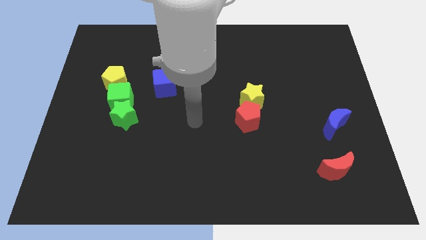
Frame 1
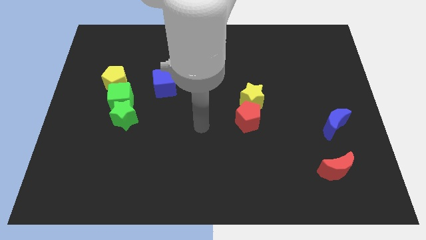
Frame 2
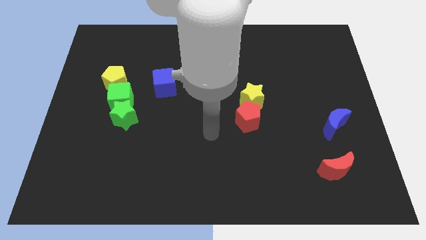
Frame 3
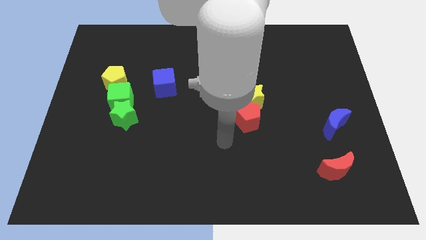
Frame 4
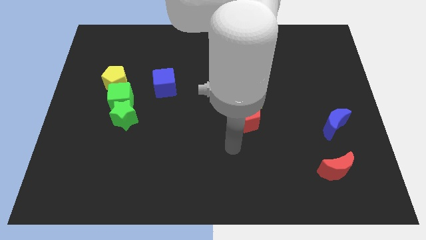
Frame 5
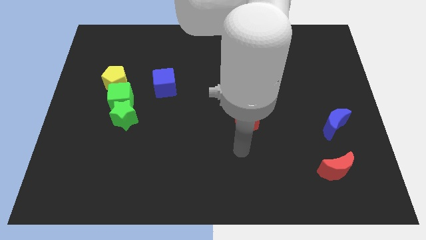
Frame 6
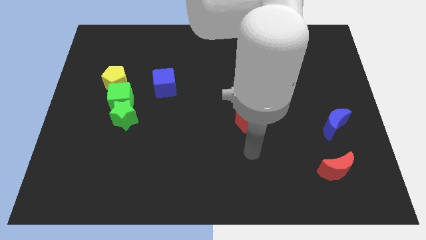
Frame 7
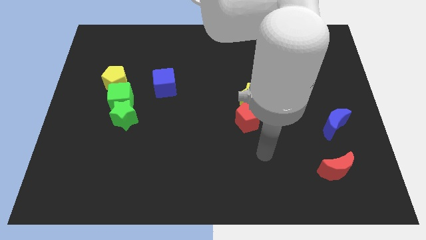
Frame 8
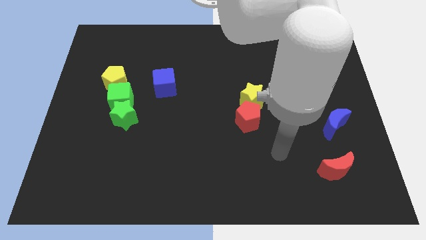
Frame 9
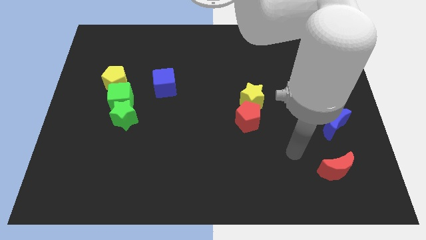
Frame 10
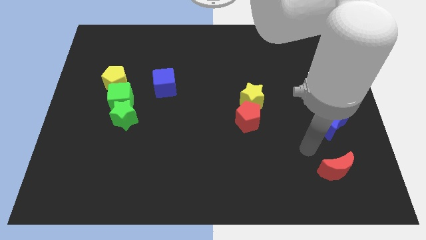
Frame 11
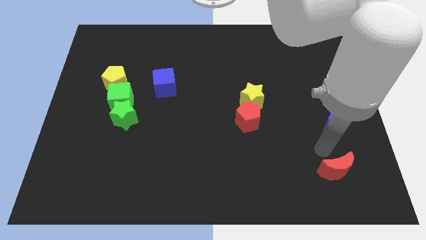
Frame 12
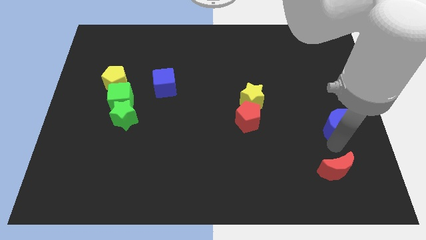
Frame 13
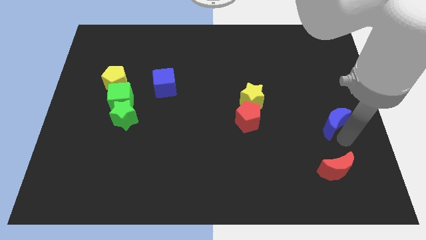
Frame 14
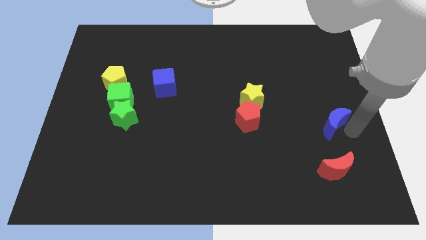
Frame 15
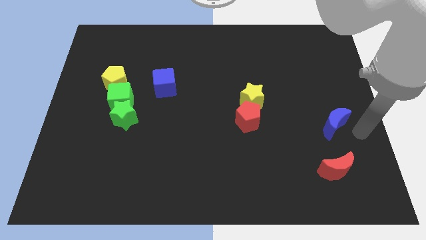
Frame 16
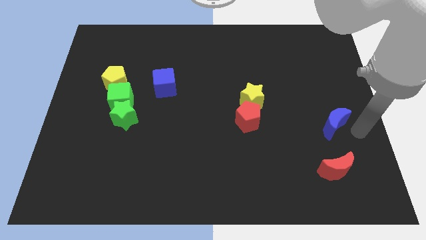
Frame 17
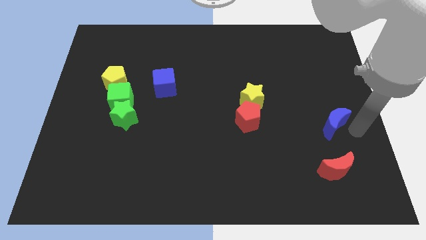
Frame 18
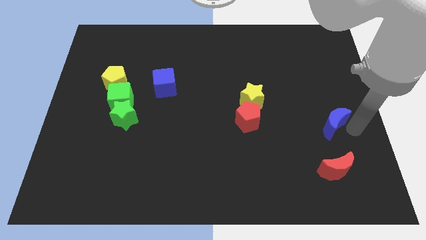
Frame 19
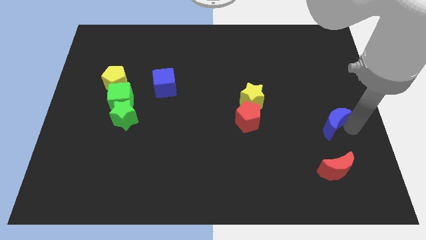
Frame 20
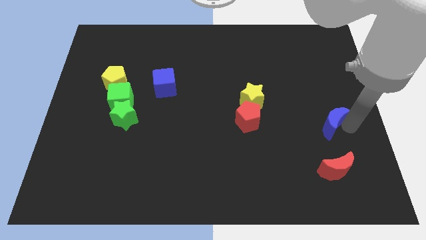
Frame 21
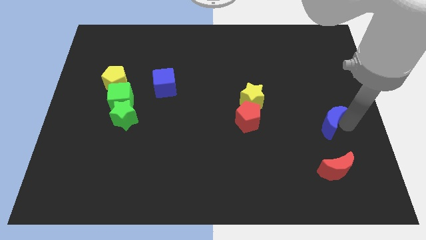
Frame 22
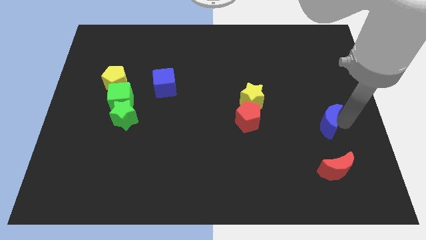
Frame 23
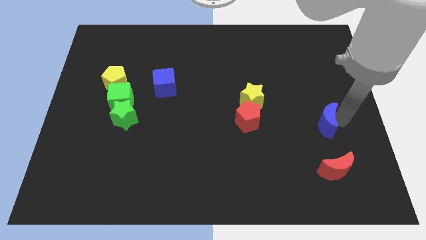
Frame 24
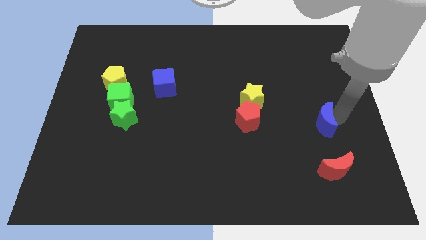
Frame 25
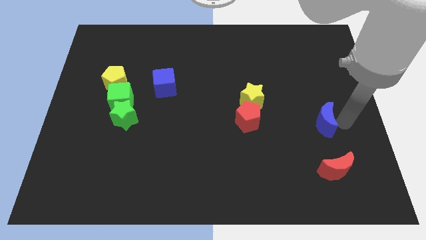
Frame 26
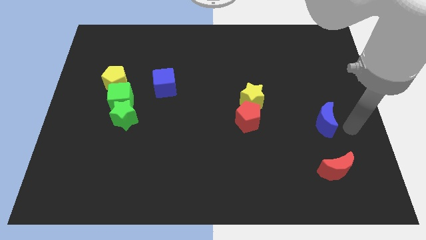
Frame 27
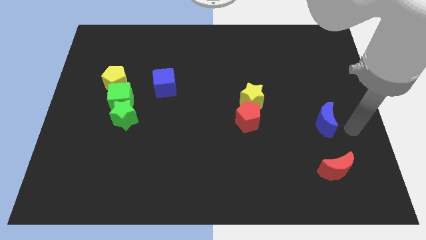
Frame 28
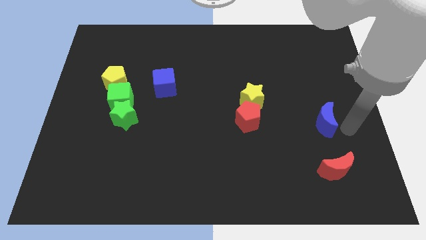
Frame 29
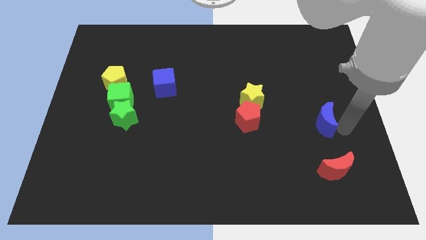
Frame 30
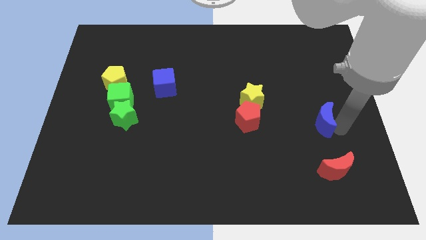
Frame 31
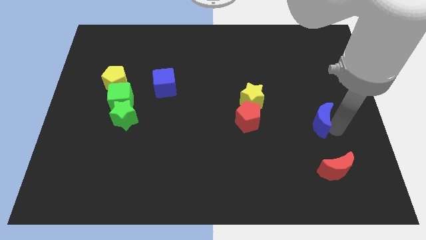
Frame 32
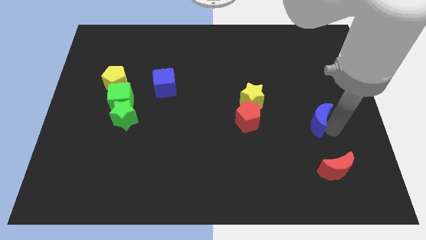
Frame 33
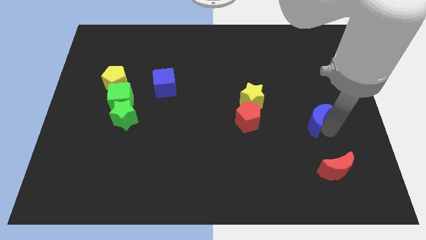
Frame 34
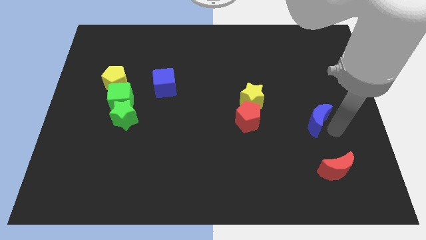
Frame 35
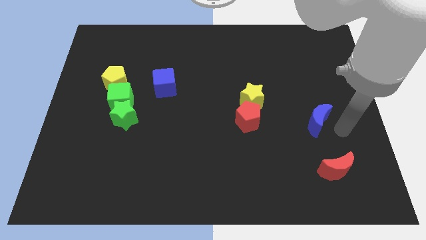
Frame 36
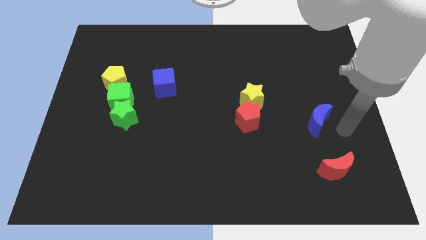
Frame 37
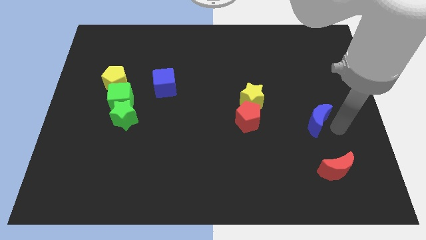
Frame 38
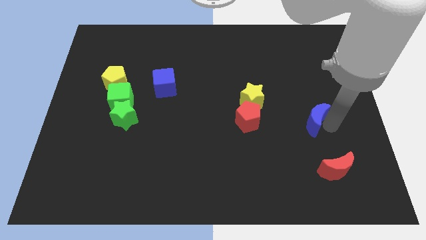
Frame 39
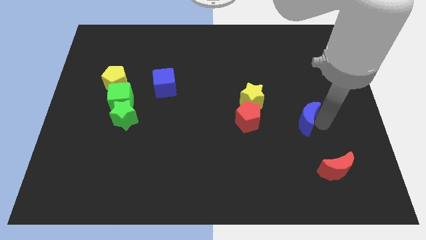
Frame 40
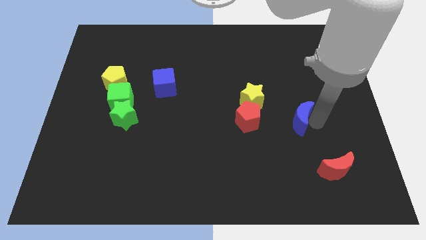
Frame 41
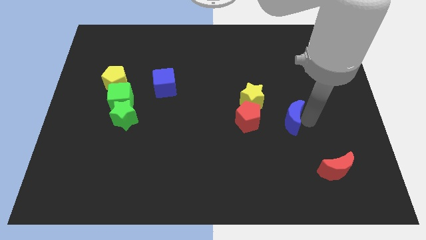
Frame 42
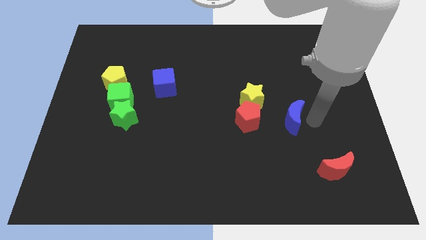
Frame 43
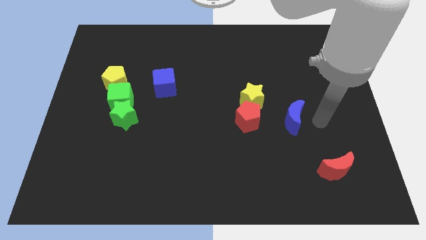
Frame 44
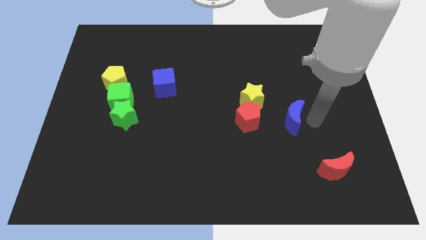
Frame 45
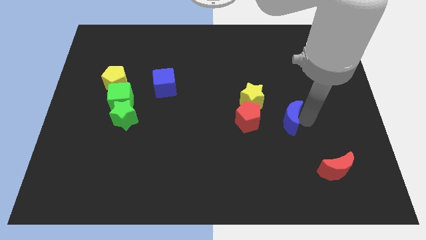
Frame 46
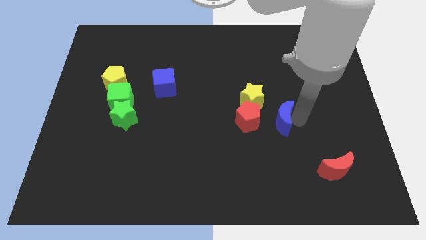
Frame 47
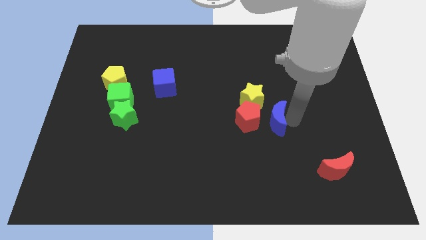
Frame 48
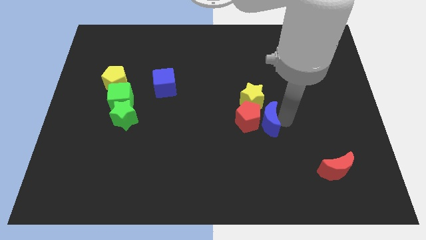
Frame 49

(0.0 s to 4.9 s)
slide the blue moon close to the red pentagon

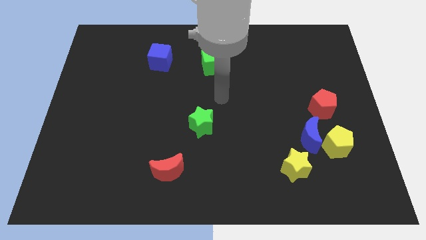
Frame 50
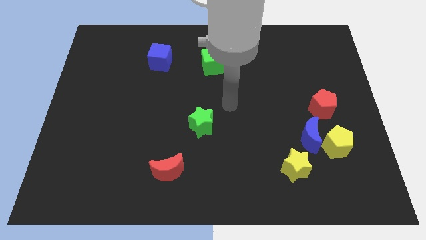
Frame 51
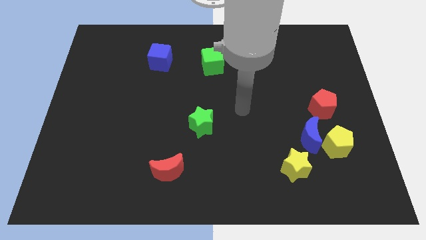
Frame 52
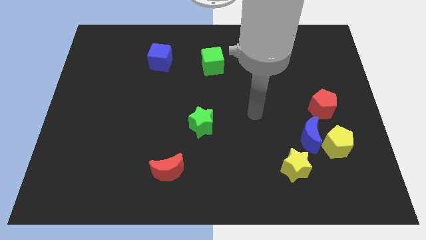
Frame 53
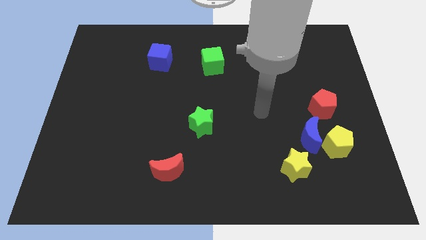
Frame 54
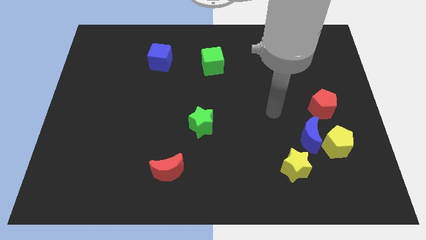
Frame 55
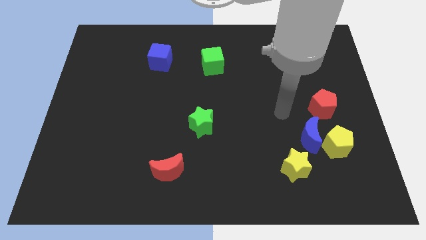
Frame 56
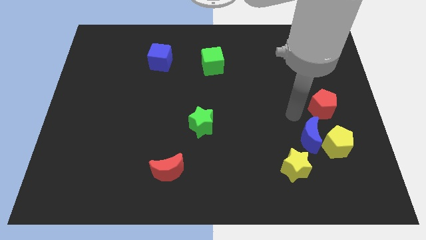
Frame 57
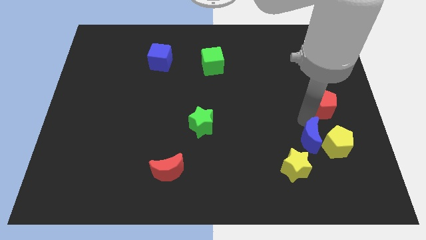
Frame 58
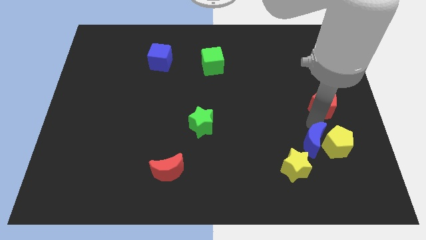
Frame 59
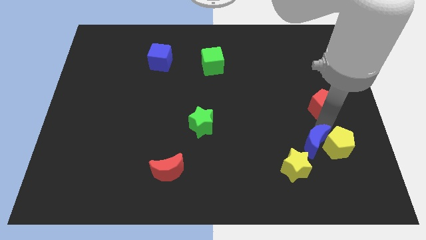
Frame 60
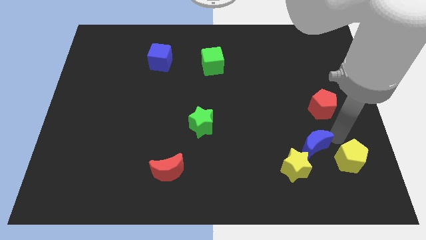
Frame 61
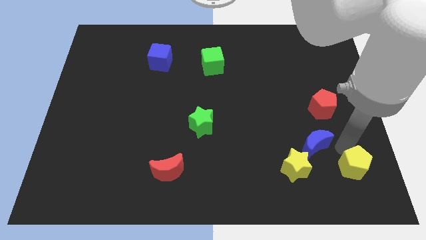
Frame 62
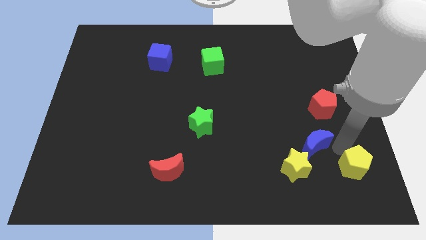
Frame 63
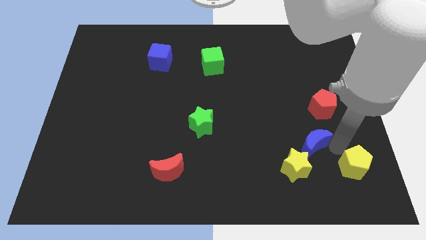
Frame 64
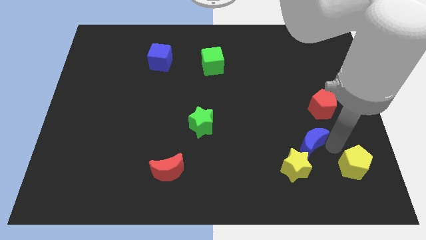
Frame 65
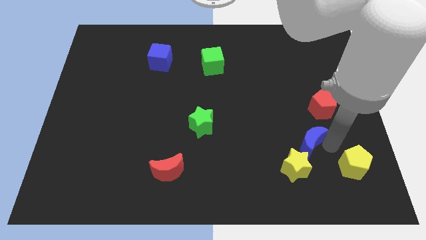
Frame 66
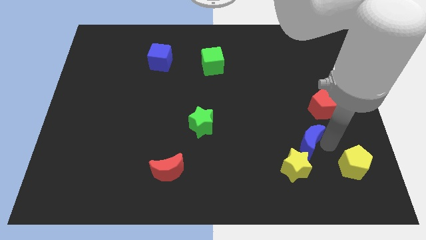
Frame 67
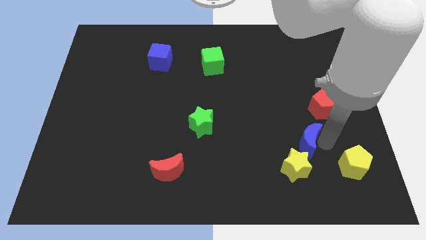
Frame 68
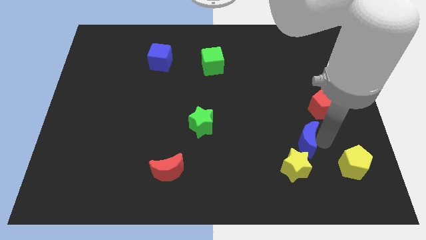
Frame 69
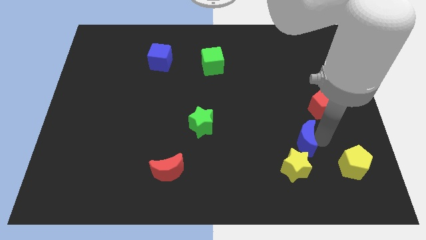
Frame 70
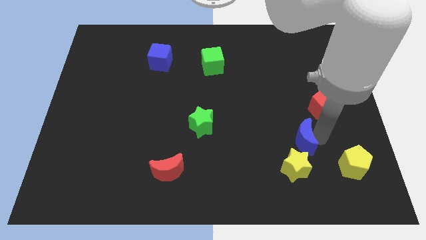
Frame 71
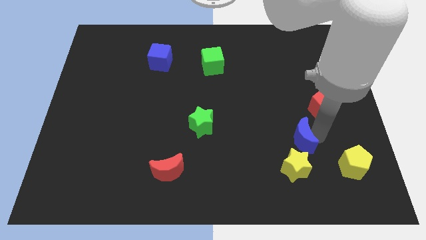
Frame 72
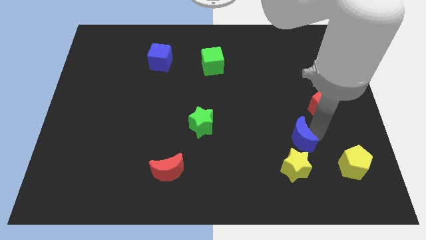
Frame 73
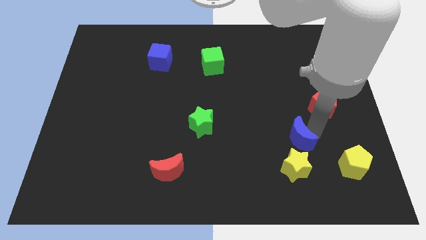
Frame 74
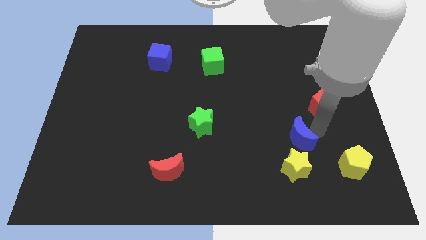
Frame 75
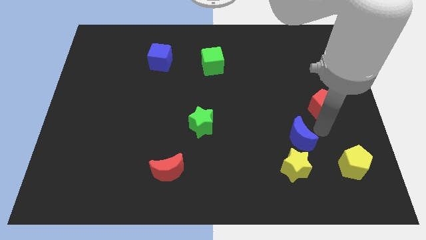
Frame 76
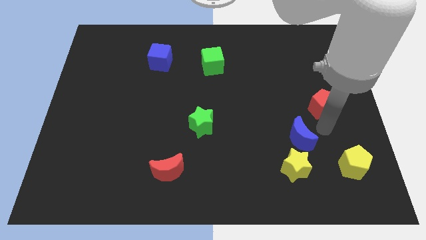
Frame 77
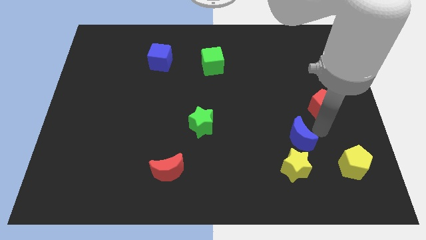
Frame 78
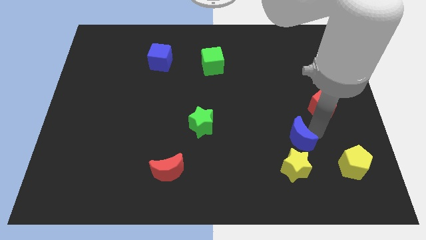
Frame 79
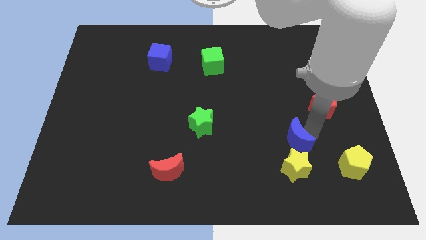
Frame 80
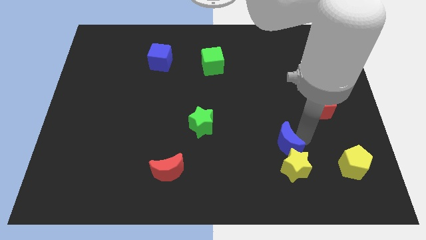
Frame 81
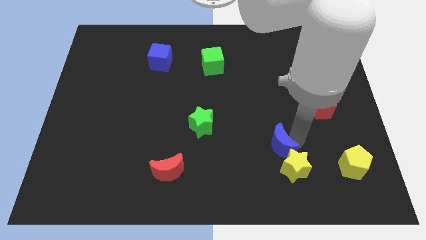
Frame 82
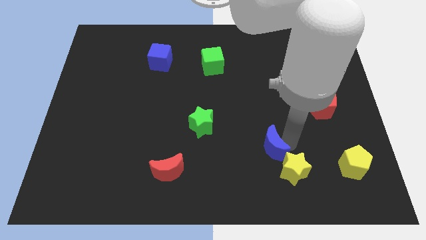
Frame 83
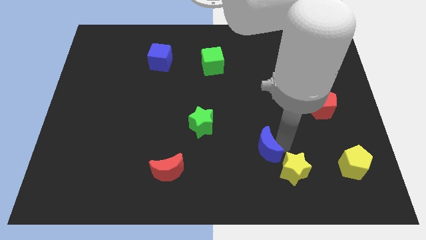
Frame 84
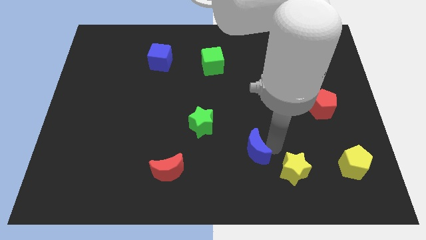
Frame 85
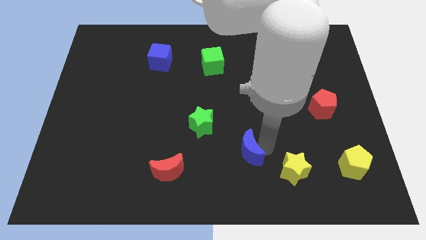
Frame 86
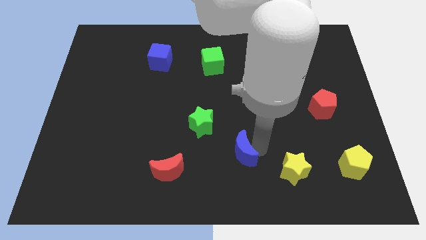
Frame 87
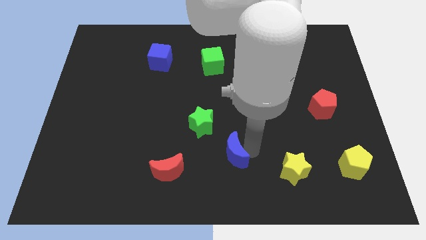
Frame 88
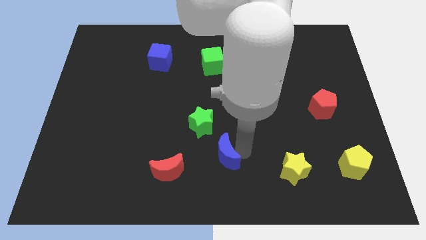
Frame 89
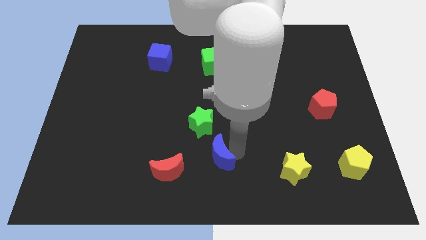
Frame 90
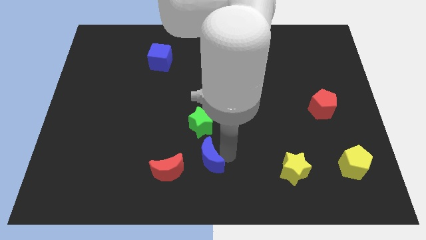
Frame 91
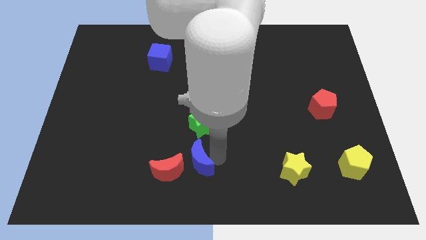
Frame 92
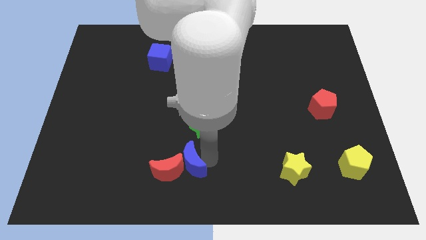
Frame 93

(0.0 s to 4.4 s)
slide the blue moon to the red moon
